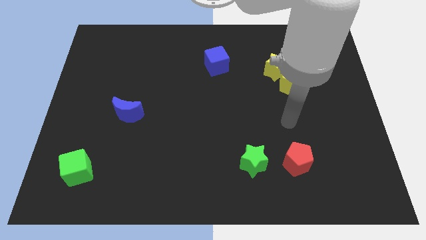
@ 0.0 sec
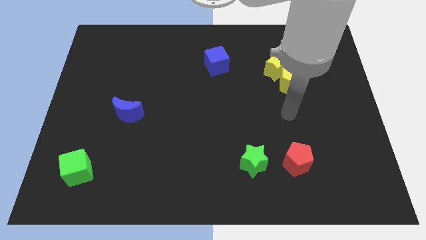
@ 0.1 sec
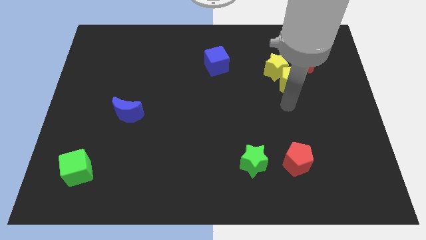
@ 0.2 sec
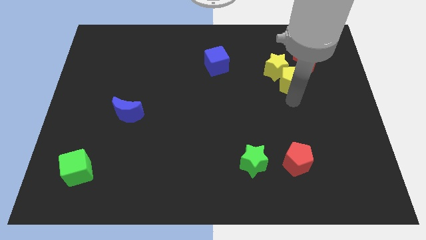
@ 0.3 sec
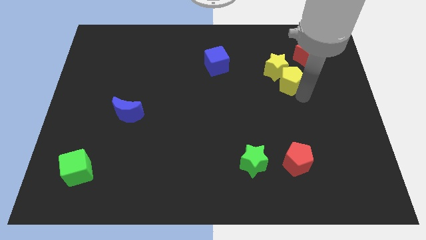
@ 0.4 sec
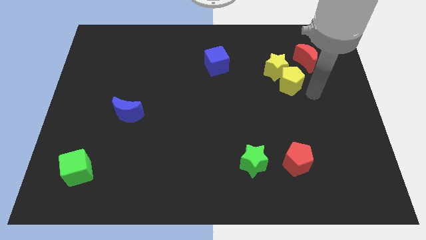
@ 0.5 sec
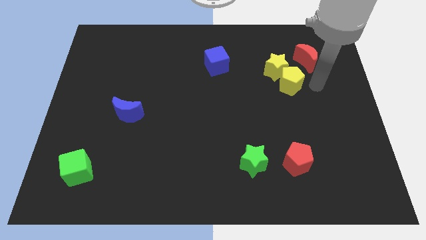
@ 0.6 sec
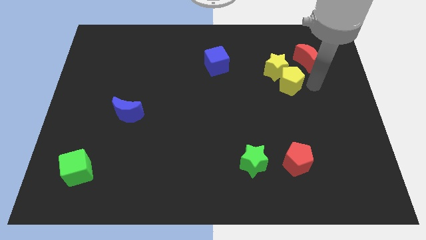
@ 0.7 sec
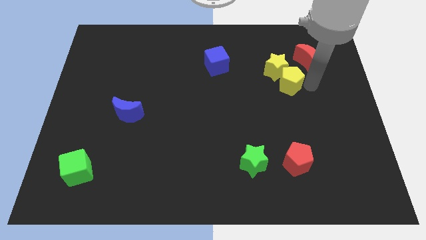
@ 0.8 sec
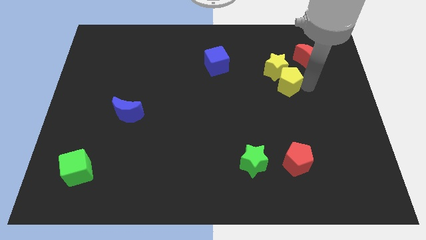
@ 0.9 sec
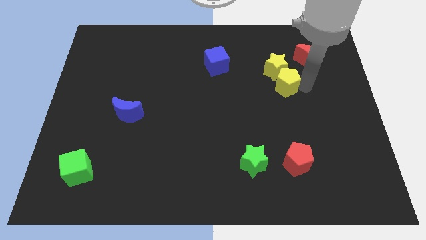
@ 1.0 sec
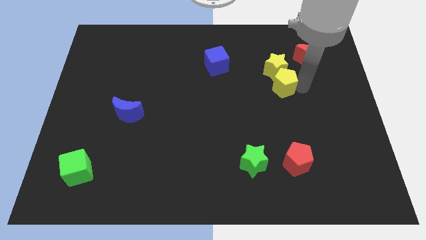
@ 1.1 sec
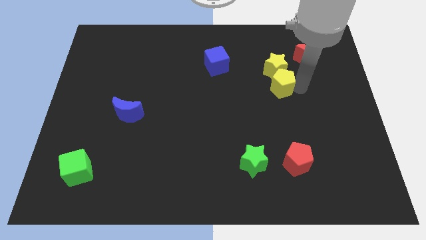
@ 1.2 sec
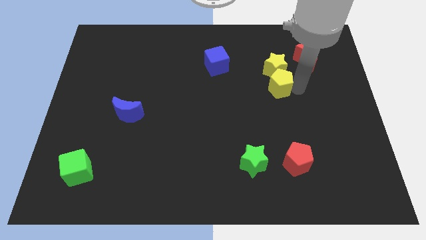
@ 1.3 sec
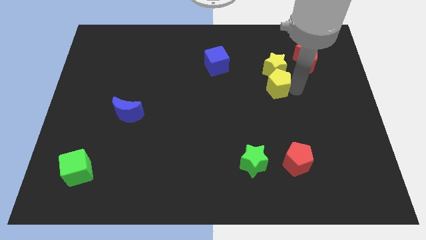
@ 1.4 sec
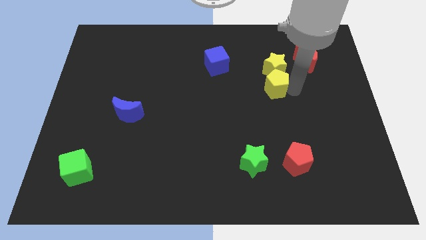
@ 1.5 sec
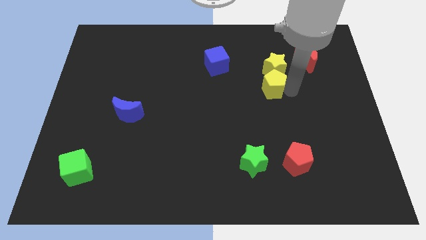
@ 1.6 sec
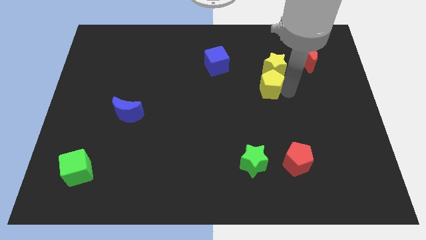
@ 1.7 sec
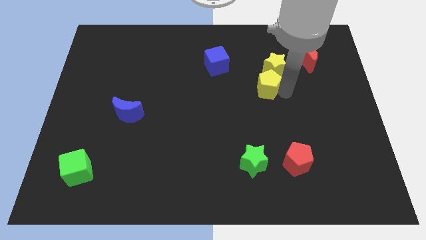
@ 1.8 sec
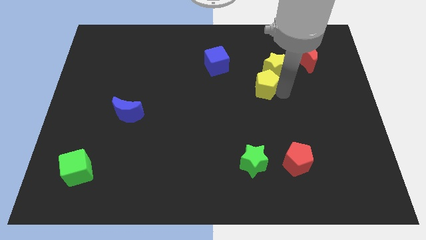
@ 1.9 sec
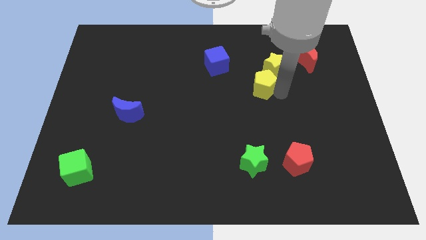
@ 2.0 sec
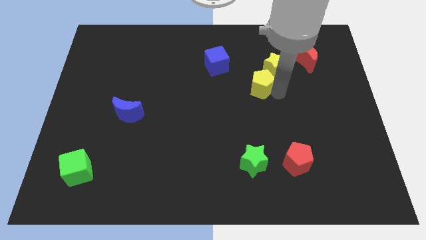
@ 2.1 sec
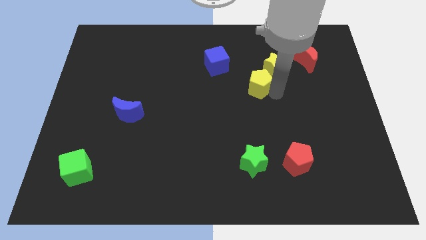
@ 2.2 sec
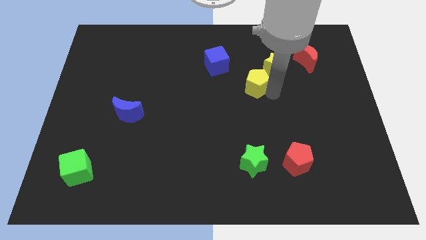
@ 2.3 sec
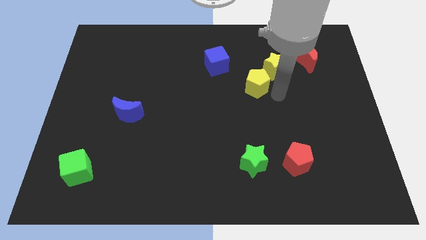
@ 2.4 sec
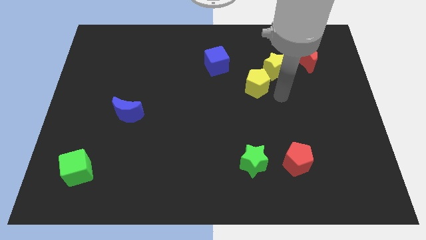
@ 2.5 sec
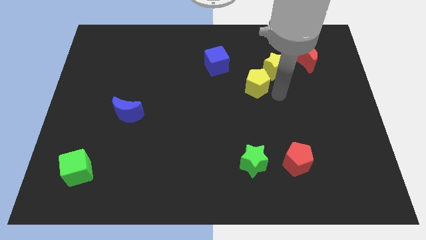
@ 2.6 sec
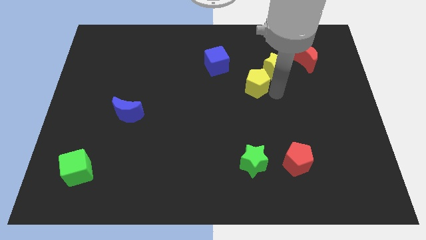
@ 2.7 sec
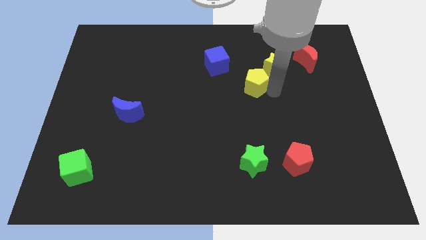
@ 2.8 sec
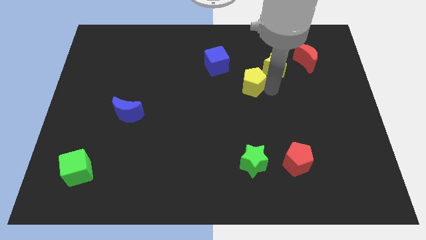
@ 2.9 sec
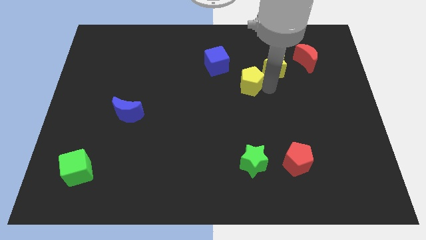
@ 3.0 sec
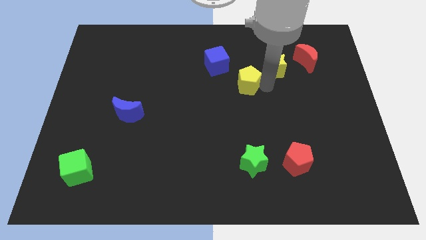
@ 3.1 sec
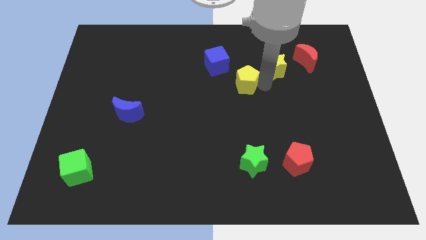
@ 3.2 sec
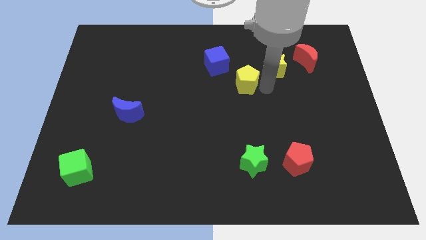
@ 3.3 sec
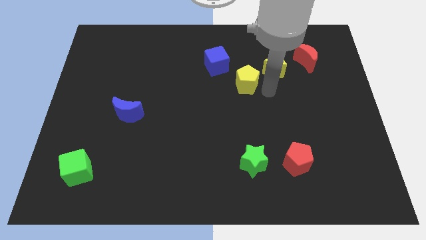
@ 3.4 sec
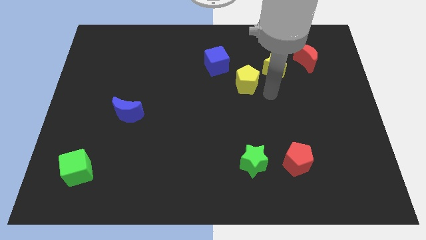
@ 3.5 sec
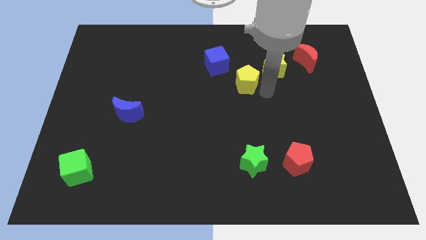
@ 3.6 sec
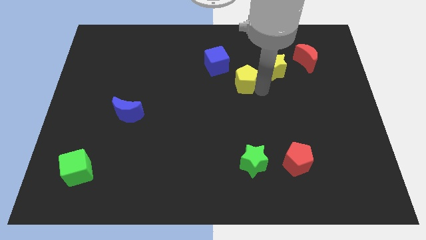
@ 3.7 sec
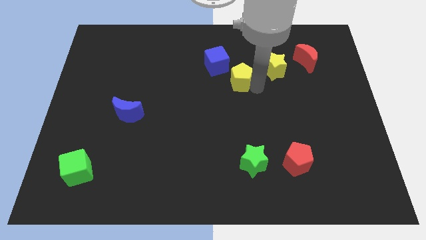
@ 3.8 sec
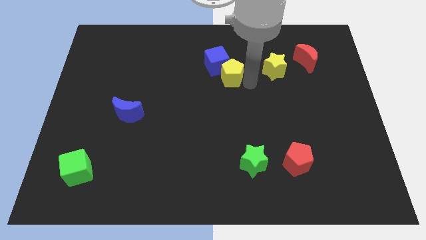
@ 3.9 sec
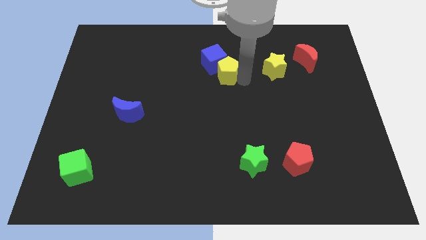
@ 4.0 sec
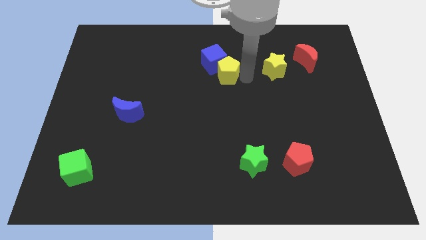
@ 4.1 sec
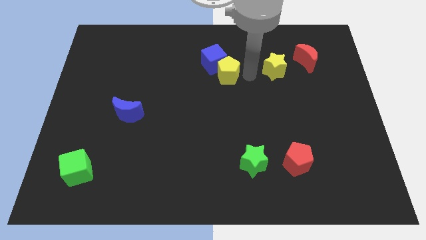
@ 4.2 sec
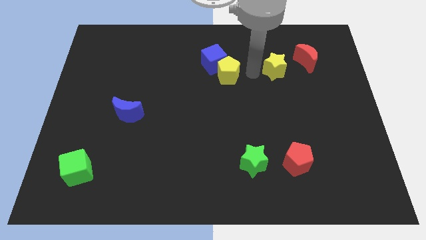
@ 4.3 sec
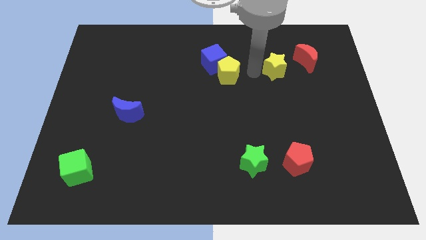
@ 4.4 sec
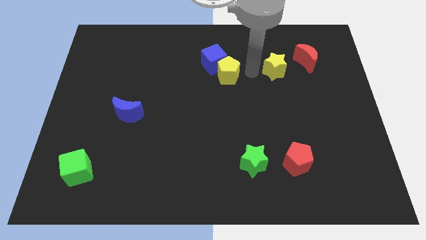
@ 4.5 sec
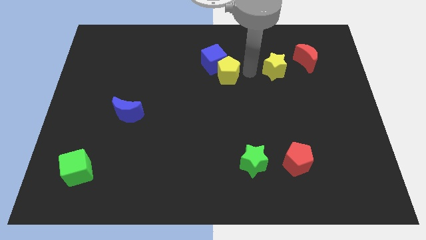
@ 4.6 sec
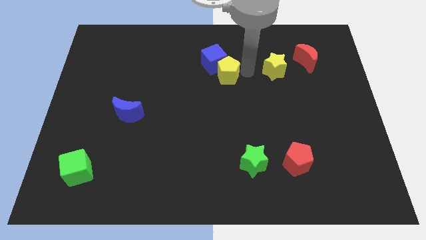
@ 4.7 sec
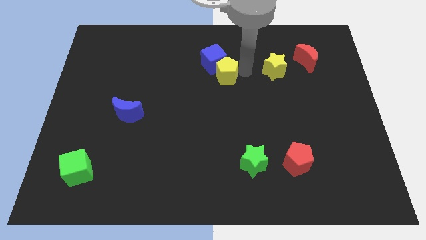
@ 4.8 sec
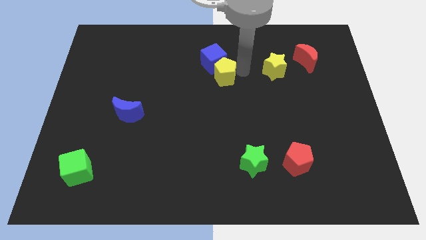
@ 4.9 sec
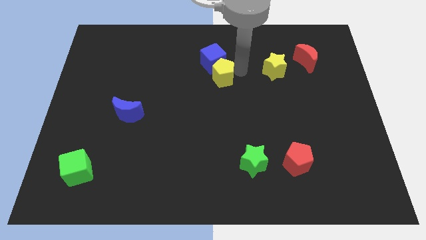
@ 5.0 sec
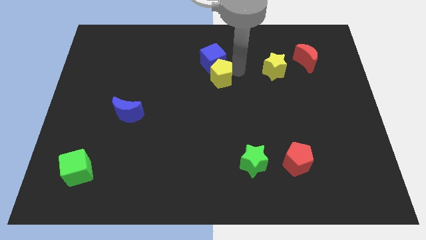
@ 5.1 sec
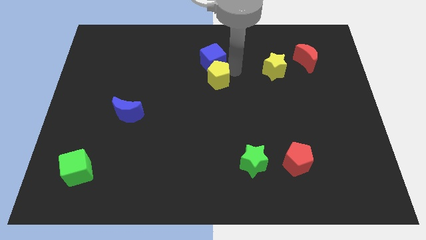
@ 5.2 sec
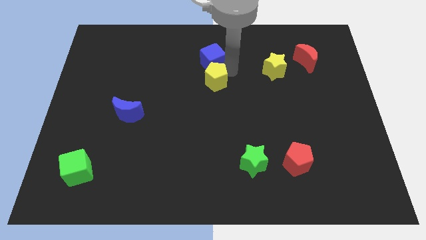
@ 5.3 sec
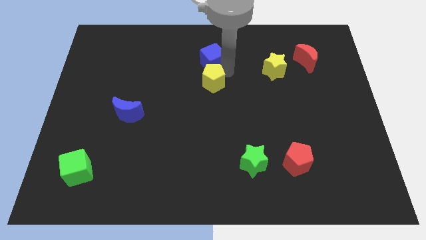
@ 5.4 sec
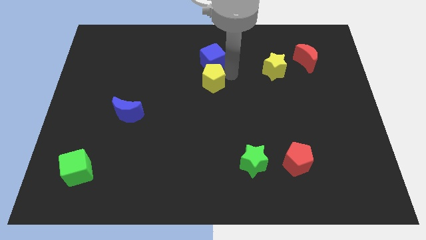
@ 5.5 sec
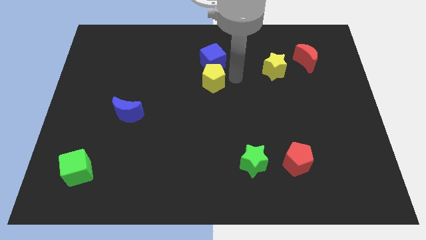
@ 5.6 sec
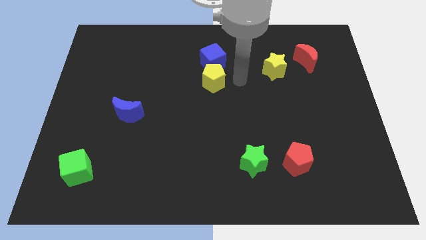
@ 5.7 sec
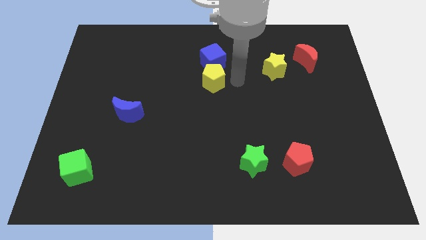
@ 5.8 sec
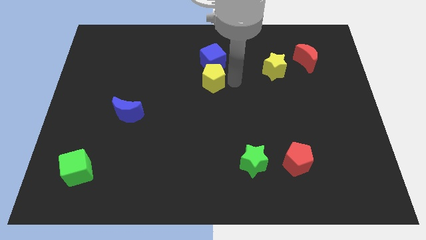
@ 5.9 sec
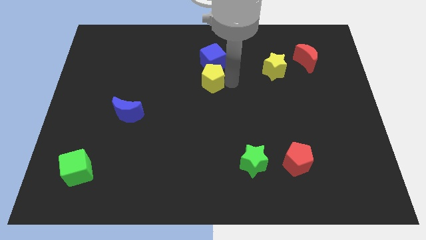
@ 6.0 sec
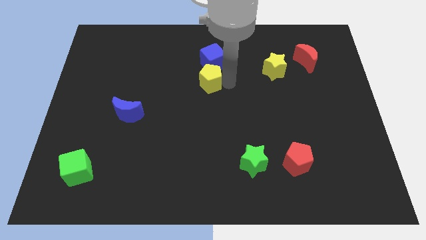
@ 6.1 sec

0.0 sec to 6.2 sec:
push the yellow pentagon left

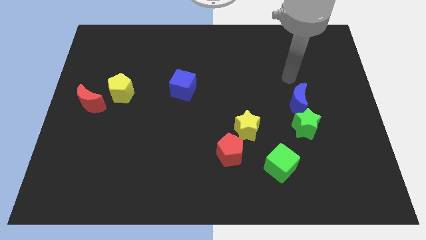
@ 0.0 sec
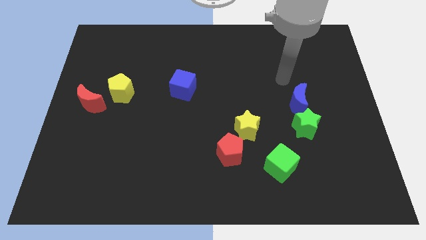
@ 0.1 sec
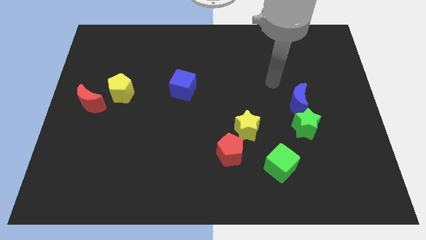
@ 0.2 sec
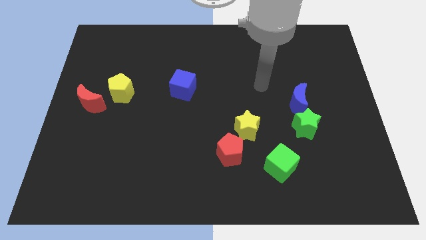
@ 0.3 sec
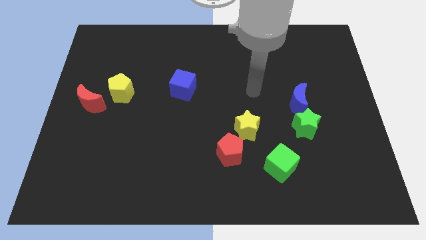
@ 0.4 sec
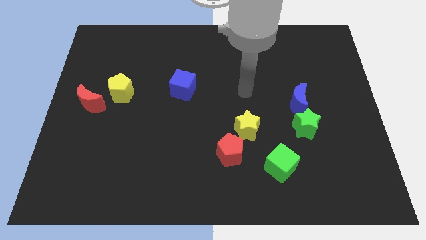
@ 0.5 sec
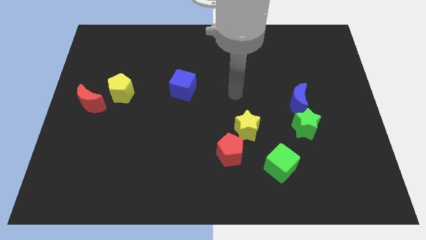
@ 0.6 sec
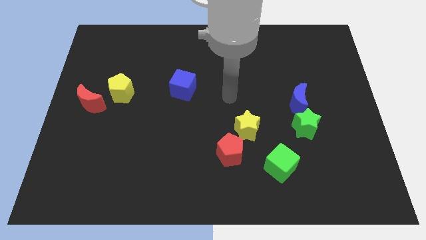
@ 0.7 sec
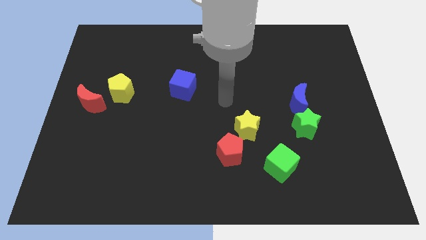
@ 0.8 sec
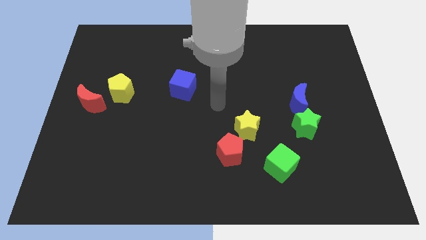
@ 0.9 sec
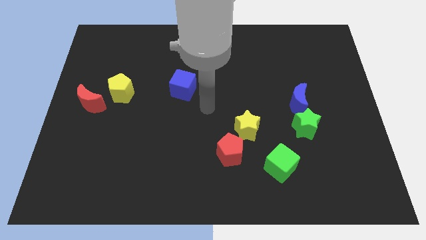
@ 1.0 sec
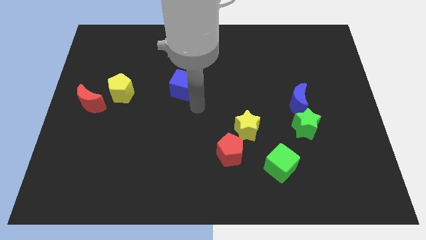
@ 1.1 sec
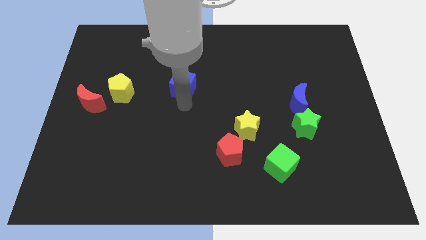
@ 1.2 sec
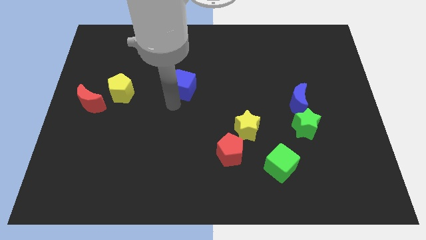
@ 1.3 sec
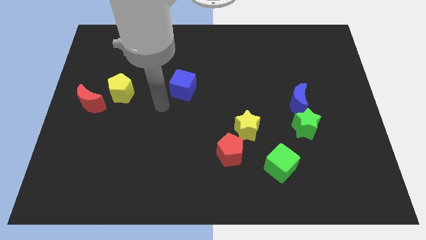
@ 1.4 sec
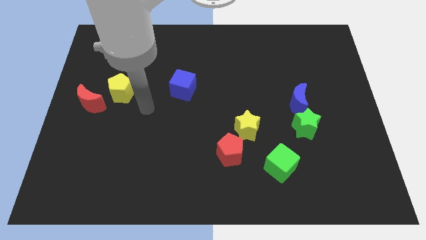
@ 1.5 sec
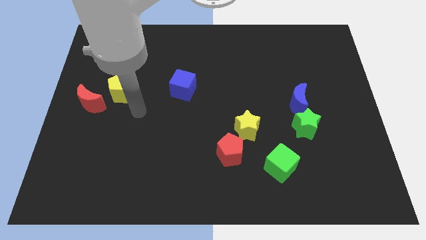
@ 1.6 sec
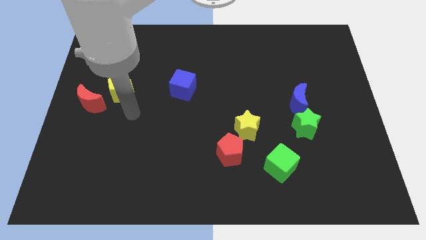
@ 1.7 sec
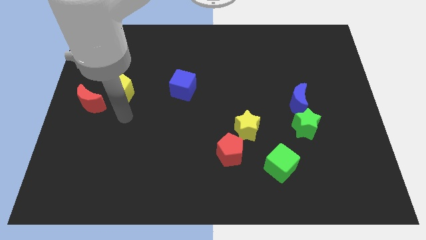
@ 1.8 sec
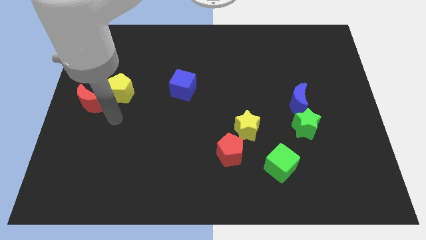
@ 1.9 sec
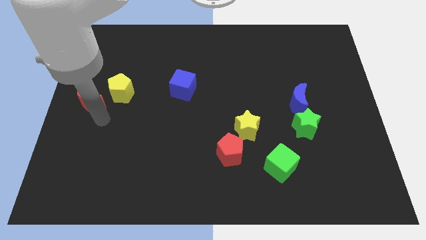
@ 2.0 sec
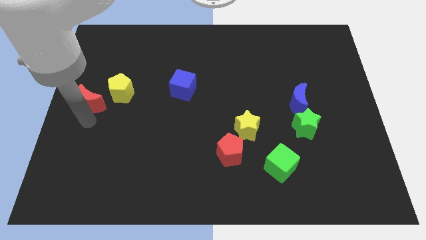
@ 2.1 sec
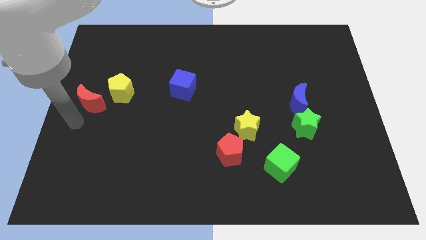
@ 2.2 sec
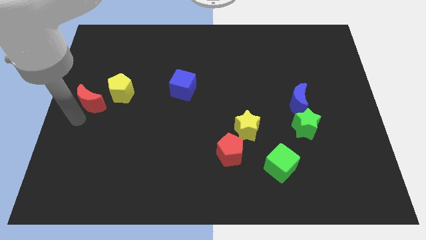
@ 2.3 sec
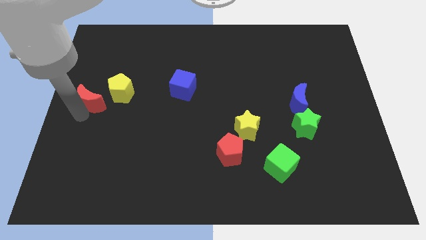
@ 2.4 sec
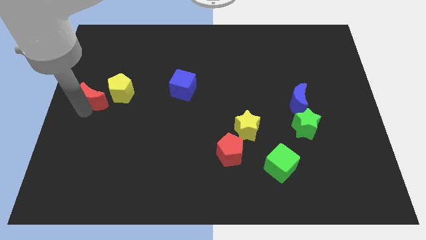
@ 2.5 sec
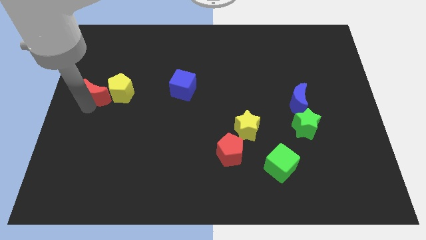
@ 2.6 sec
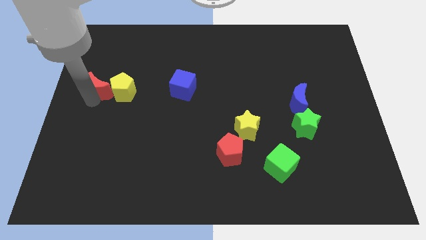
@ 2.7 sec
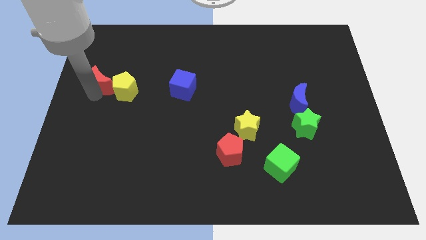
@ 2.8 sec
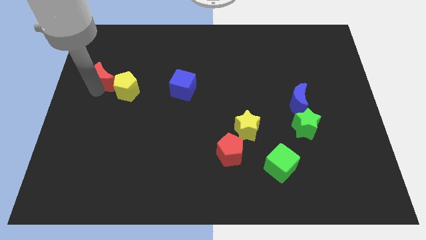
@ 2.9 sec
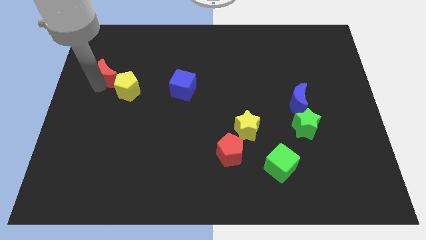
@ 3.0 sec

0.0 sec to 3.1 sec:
slide the red moon a little up and then right
